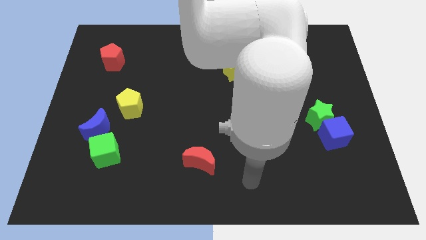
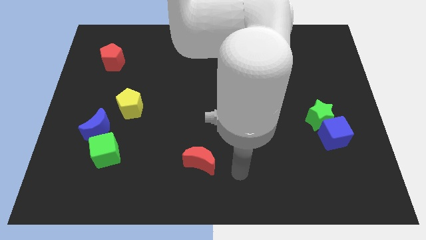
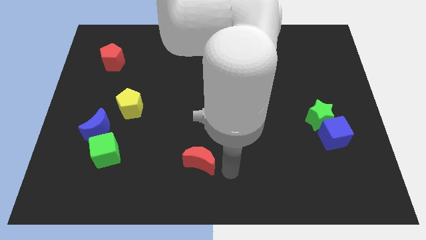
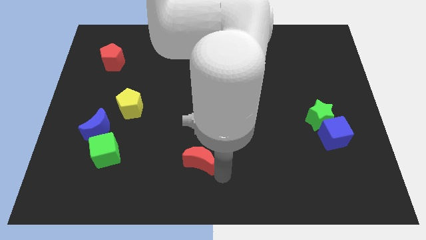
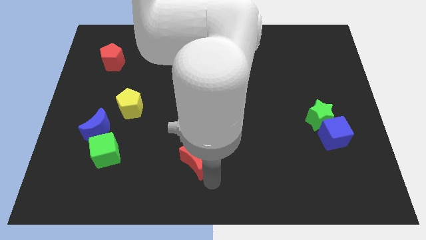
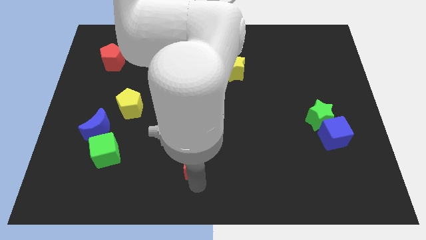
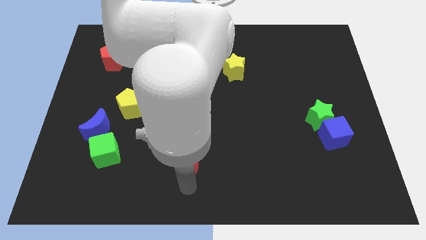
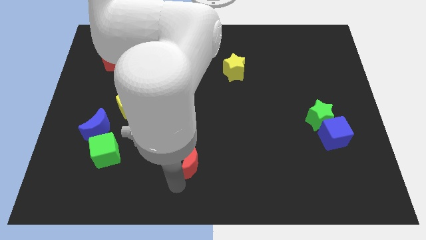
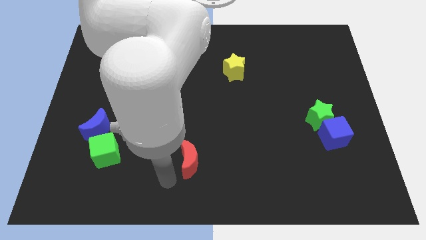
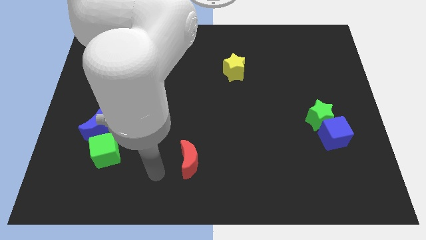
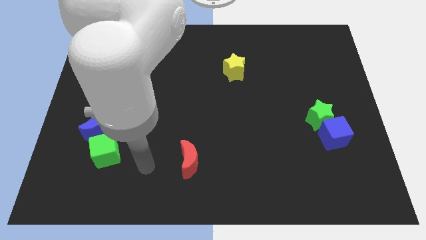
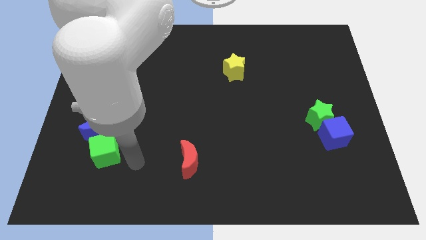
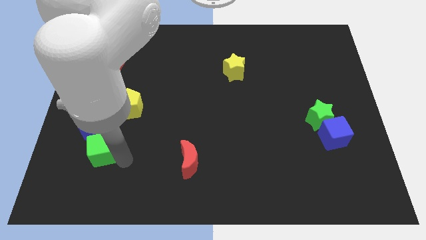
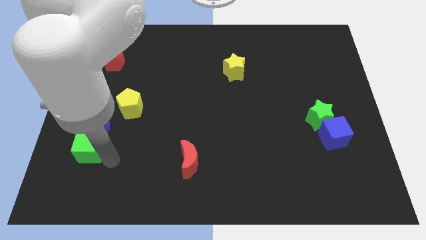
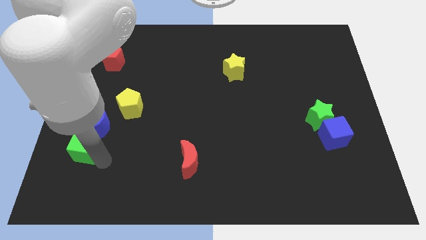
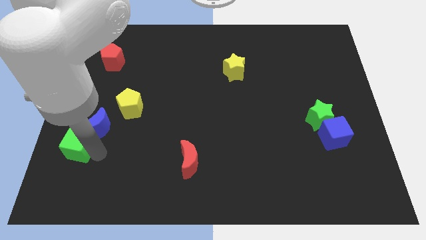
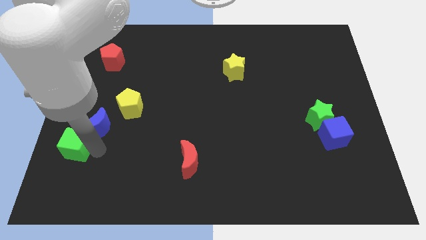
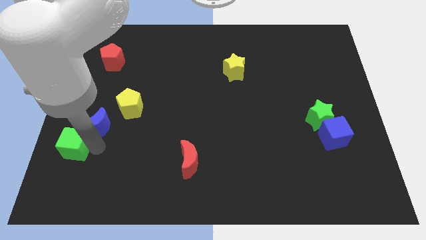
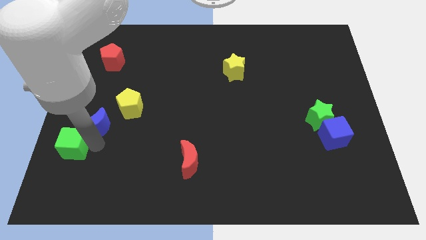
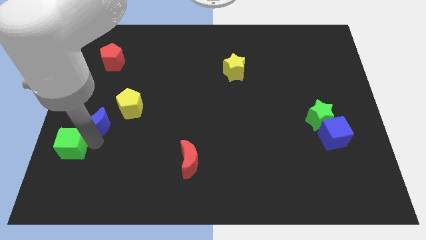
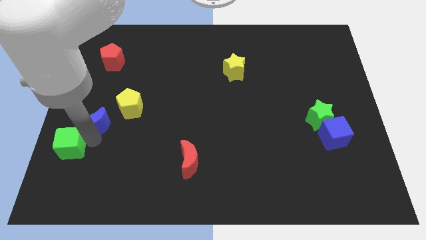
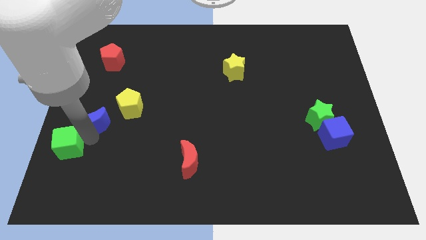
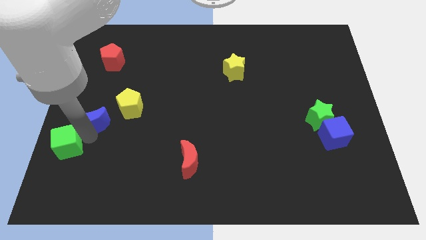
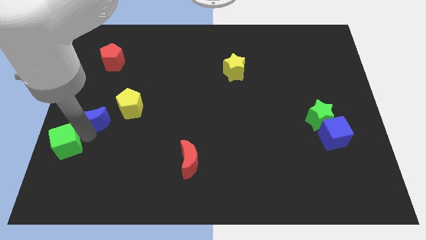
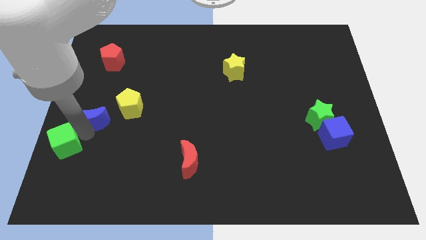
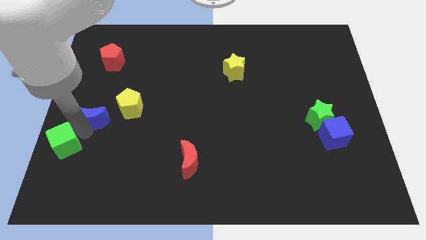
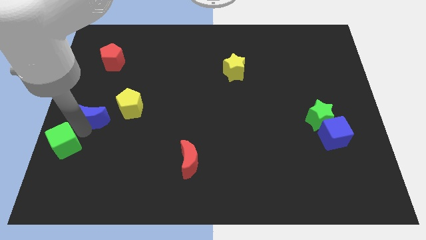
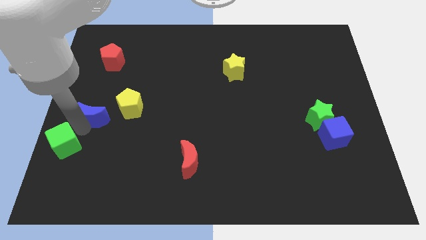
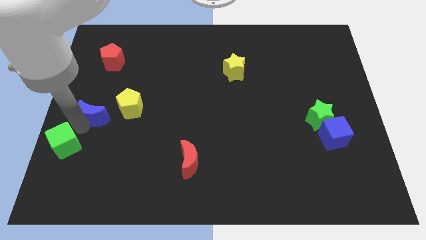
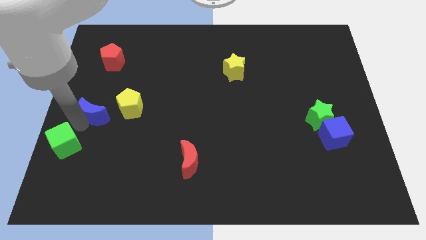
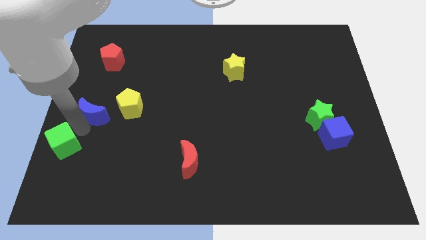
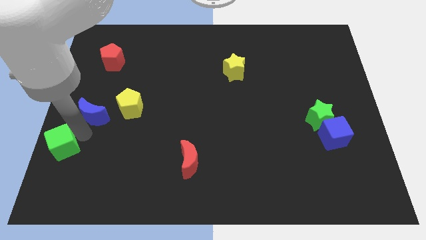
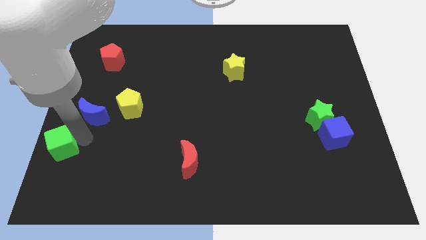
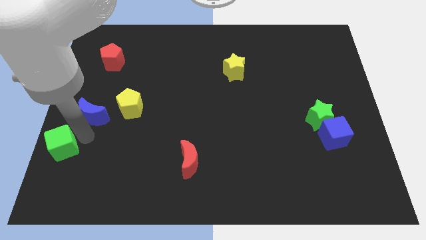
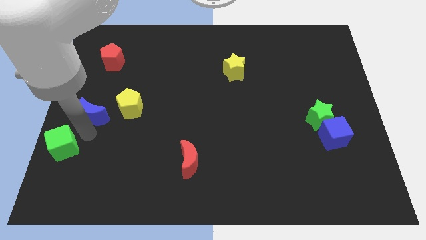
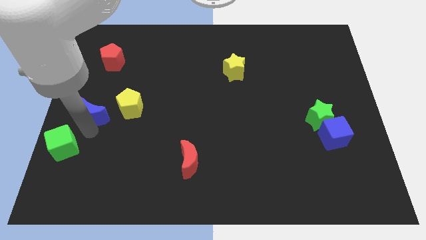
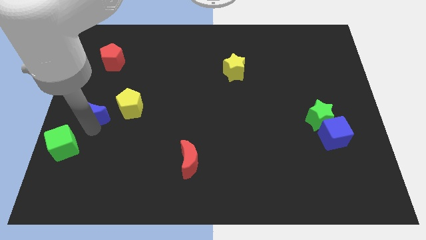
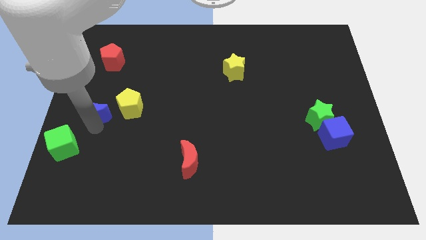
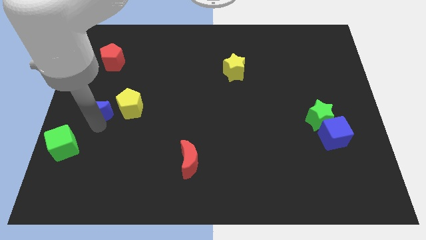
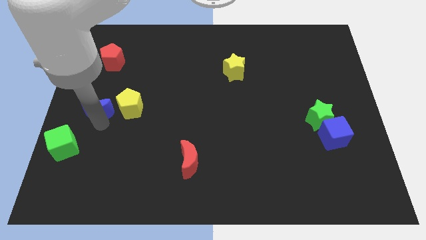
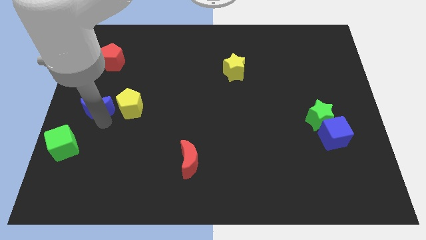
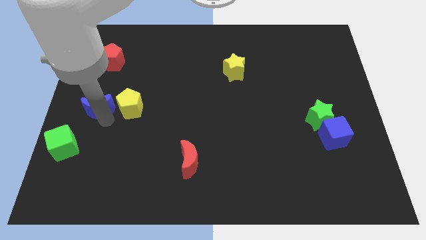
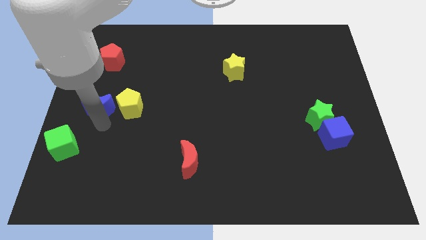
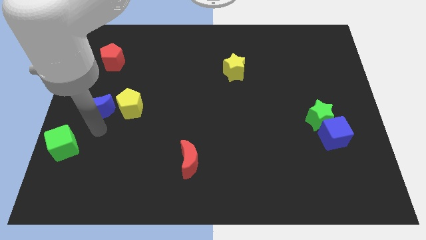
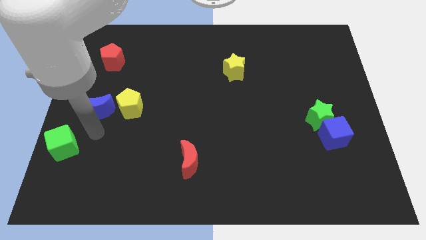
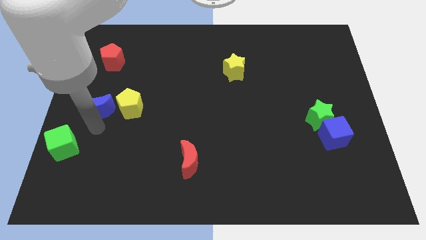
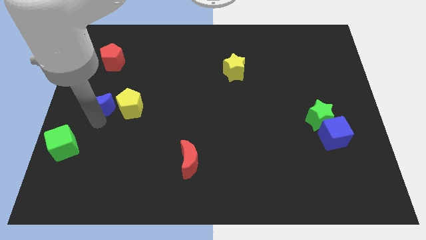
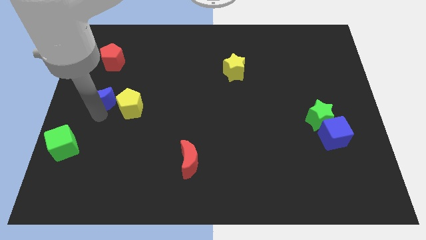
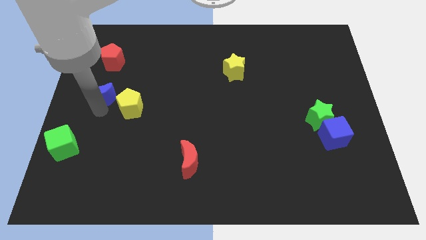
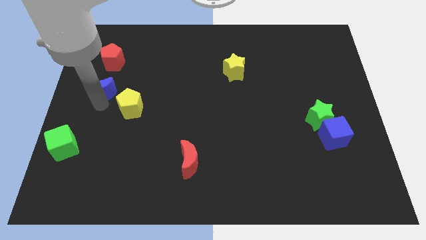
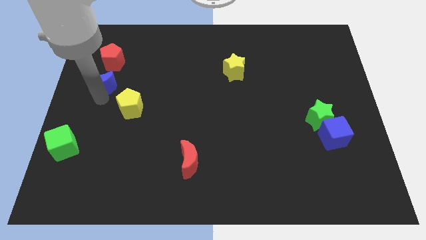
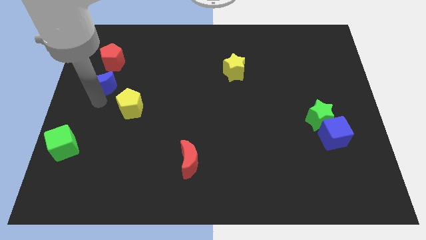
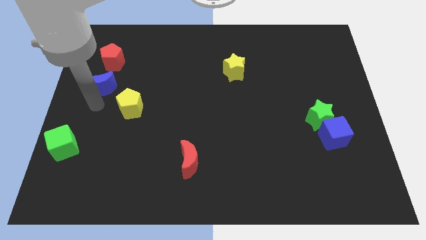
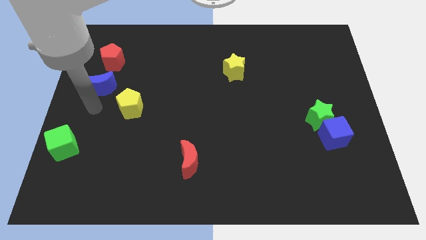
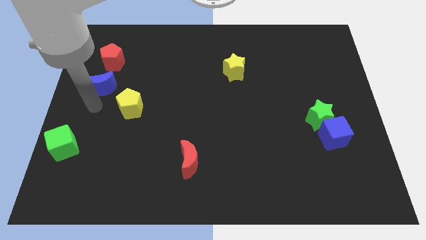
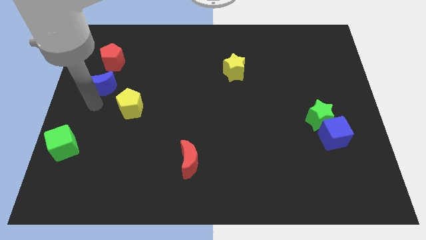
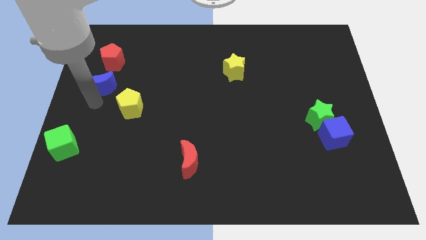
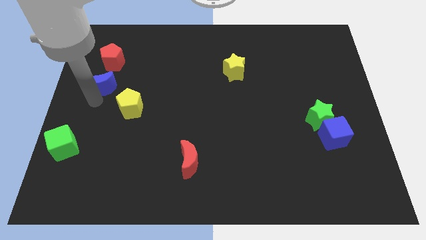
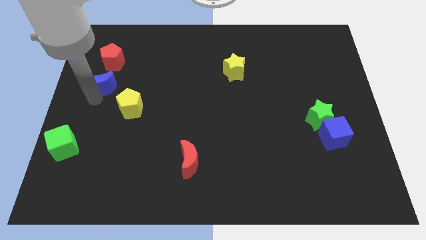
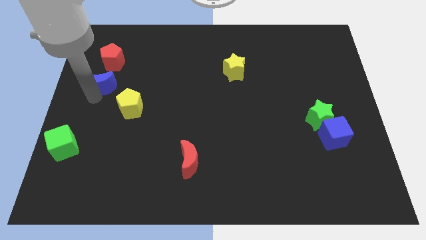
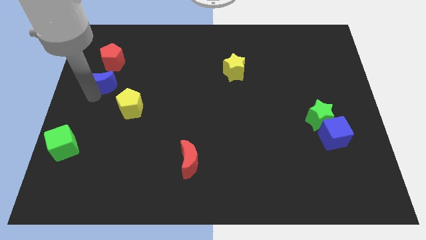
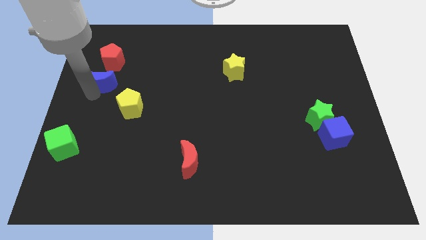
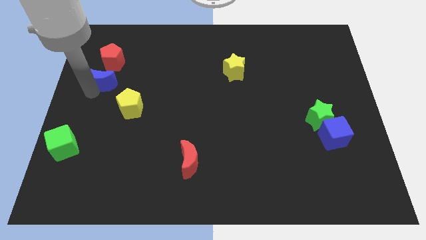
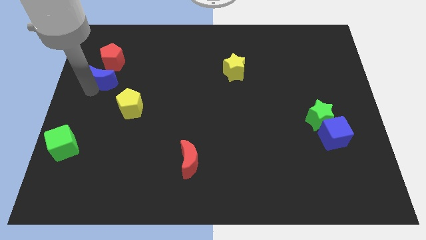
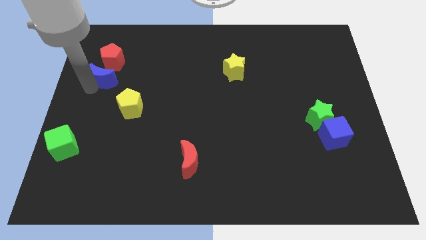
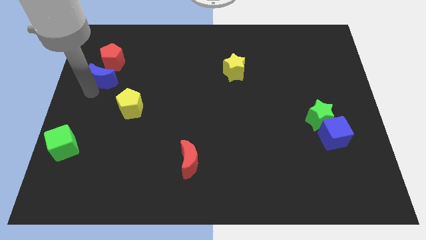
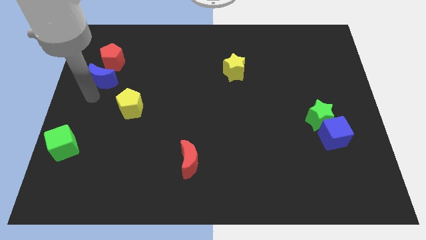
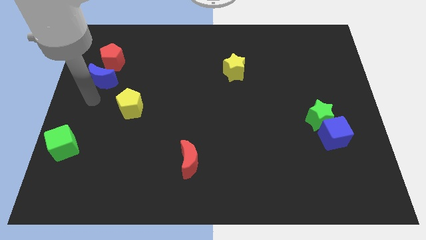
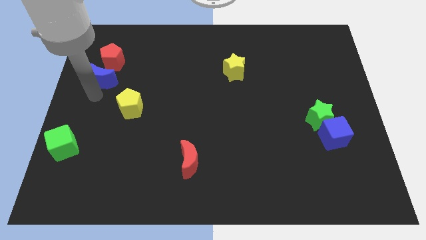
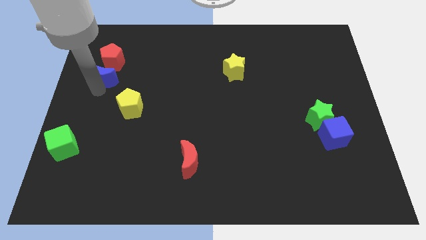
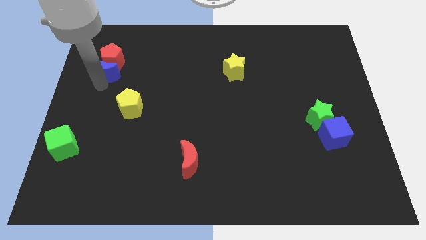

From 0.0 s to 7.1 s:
push the blue moon to the red pentagon

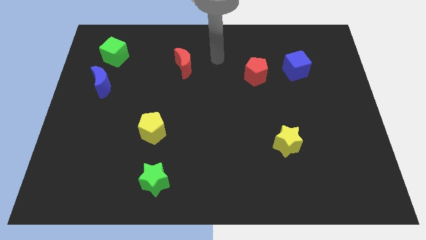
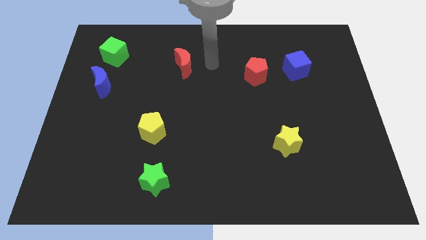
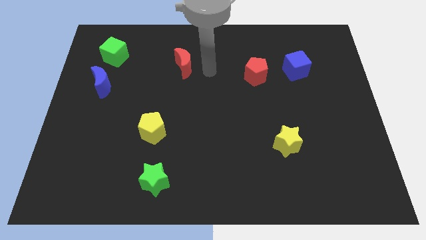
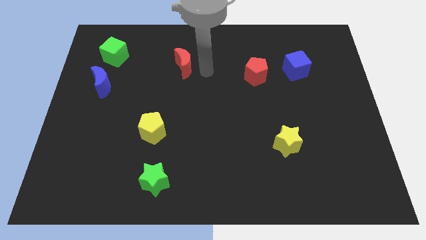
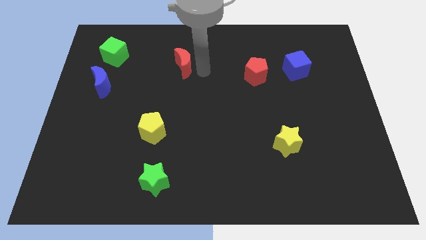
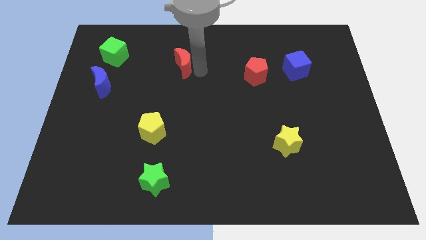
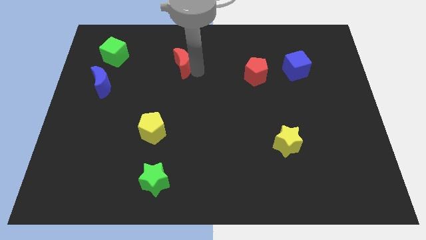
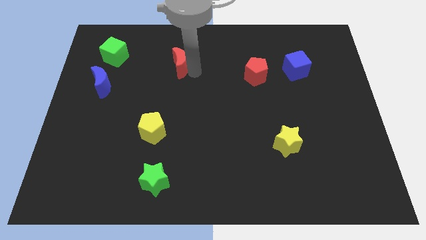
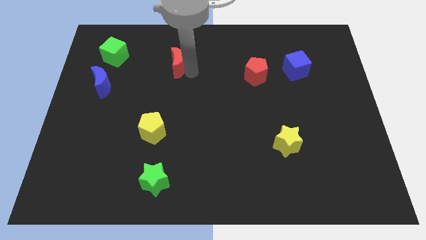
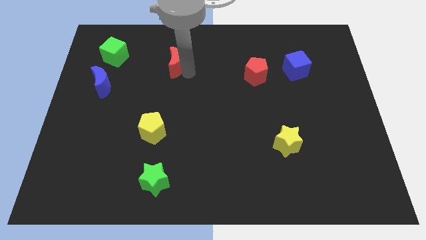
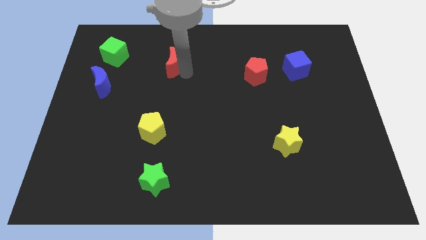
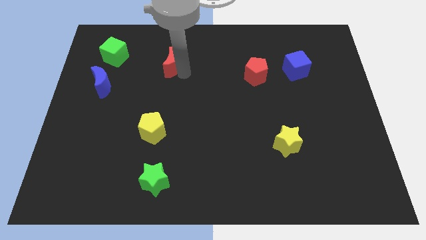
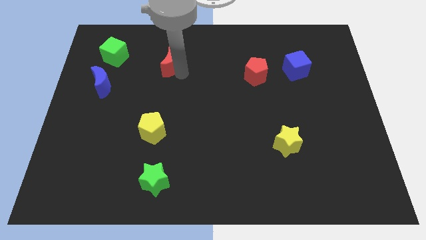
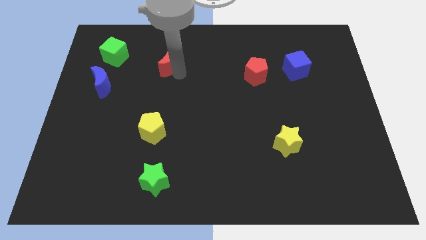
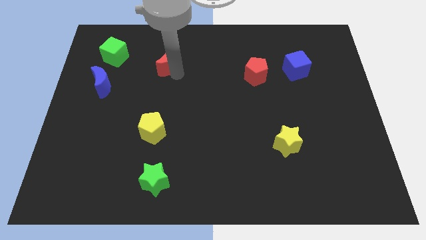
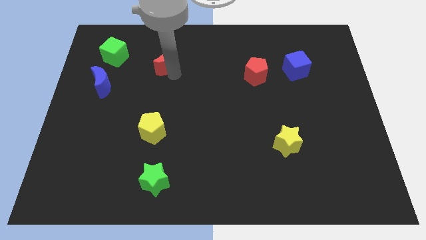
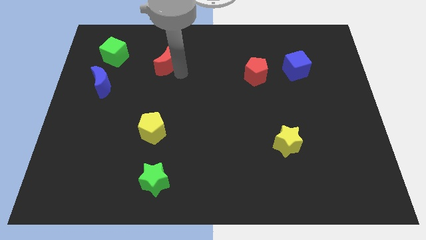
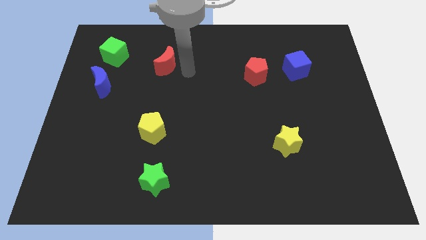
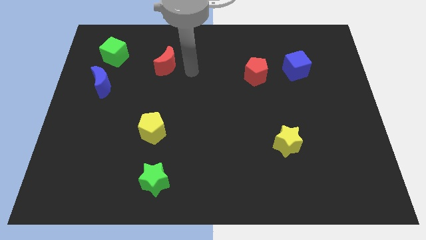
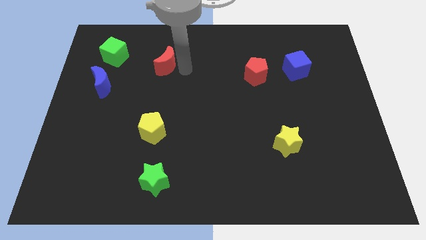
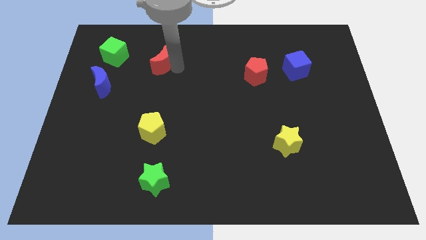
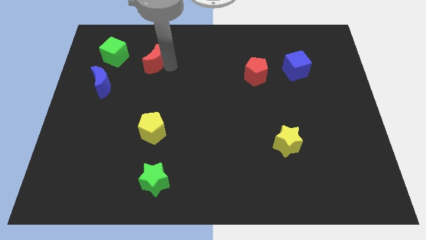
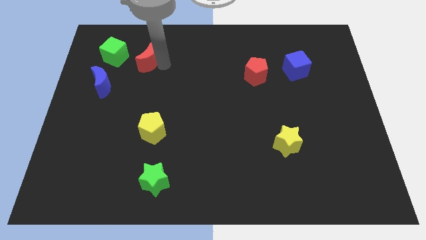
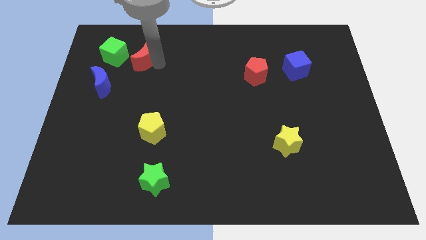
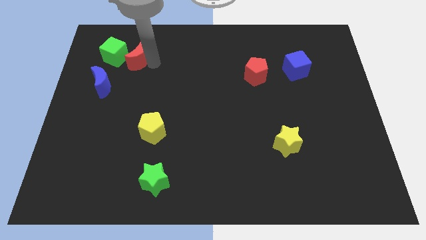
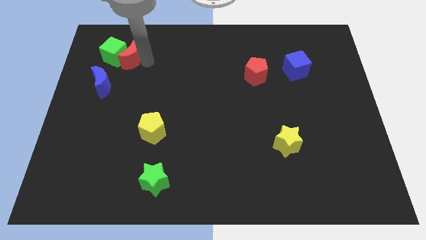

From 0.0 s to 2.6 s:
move the red moon towards the green cube
